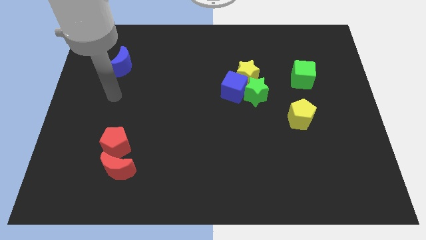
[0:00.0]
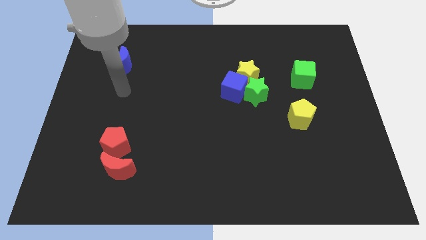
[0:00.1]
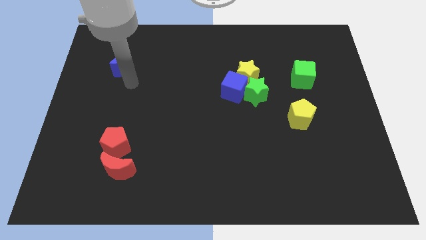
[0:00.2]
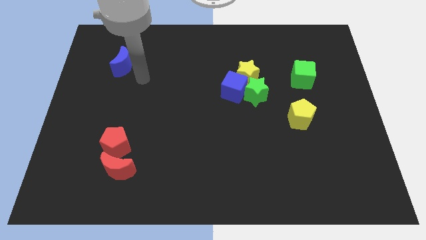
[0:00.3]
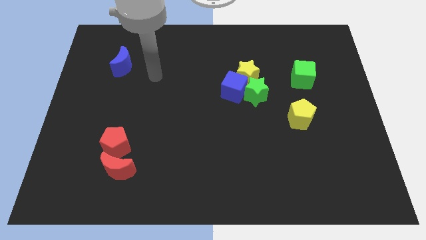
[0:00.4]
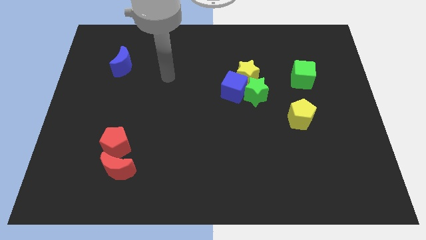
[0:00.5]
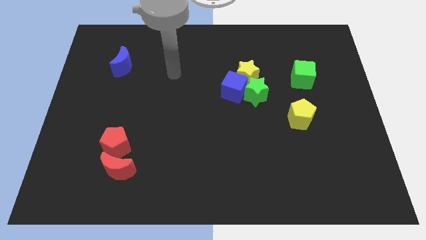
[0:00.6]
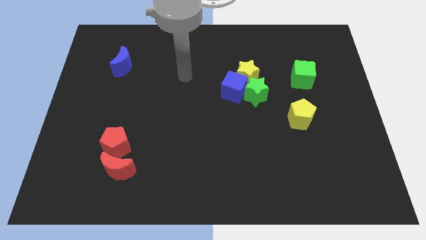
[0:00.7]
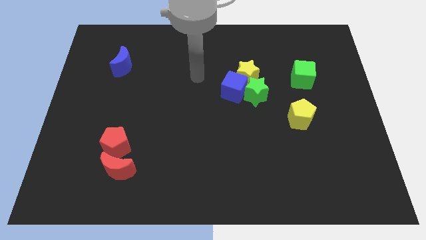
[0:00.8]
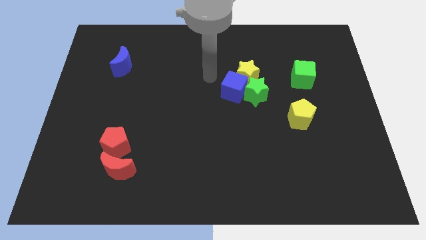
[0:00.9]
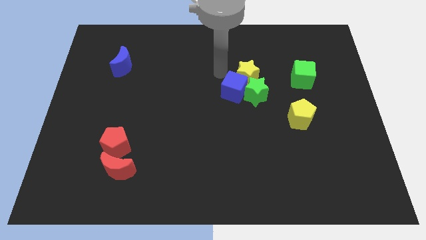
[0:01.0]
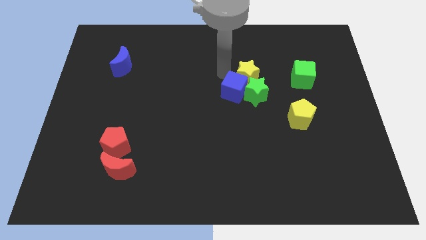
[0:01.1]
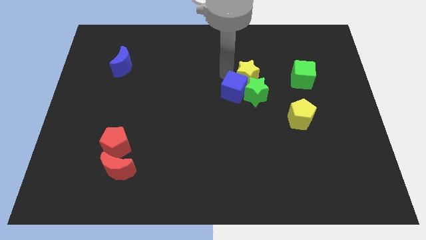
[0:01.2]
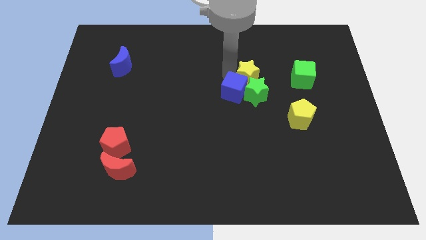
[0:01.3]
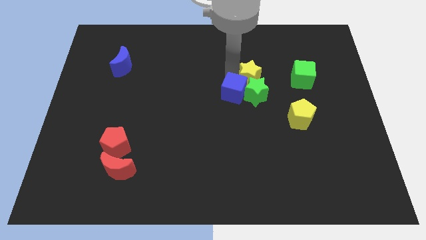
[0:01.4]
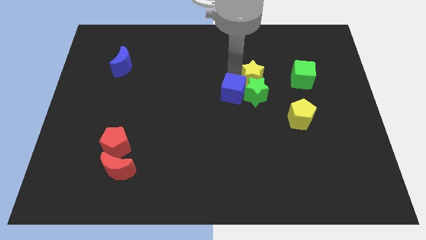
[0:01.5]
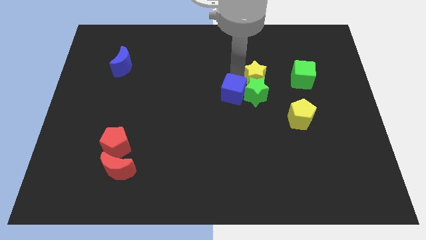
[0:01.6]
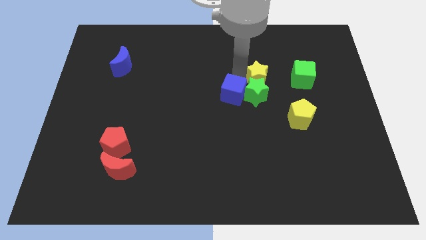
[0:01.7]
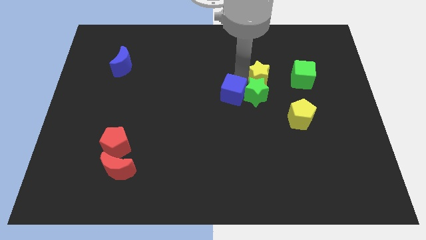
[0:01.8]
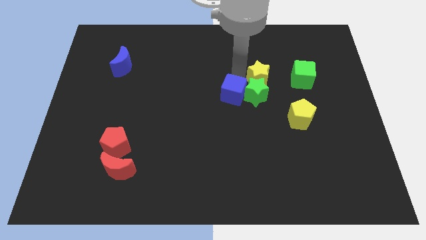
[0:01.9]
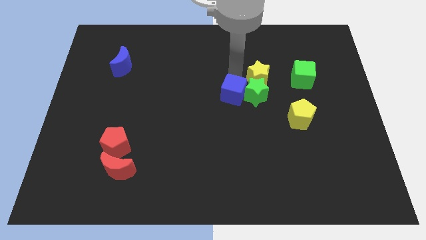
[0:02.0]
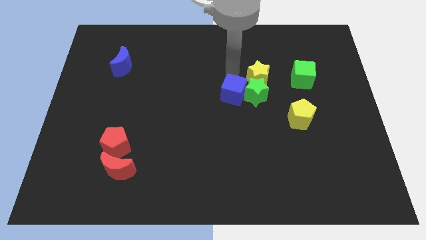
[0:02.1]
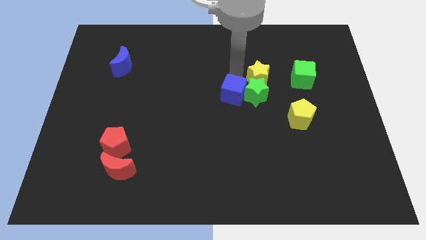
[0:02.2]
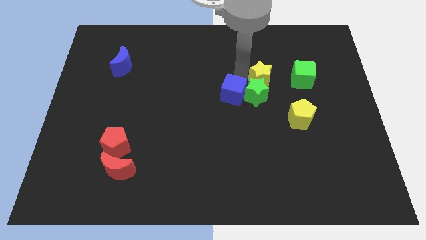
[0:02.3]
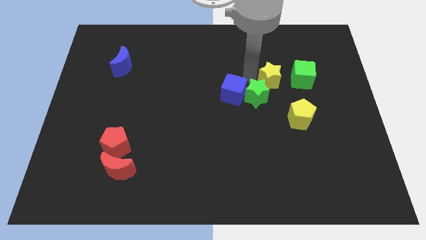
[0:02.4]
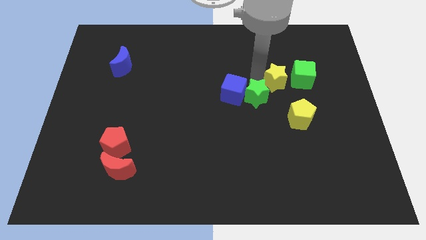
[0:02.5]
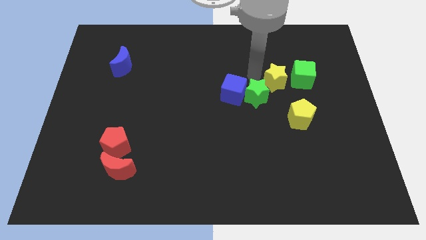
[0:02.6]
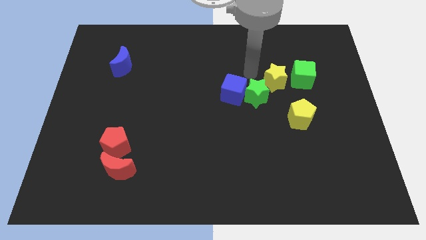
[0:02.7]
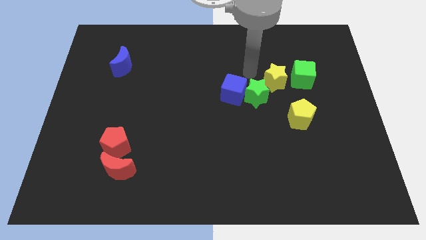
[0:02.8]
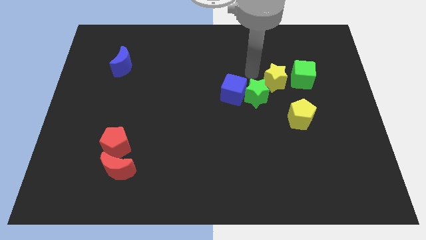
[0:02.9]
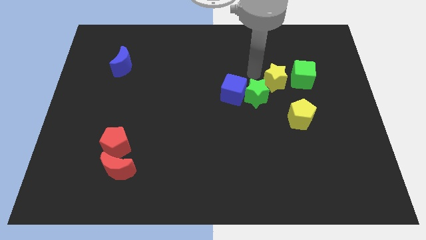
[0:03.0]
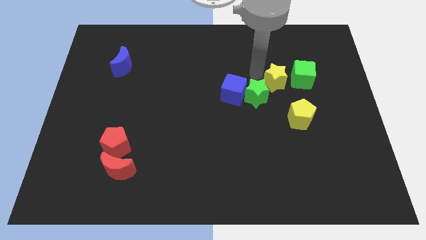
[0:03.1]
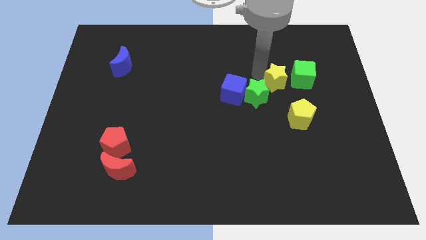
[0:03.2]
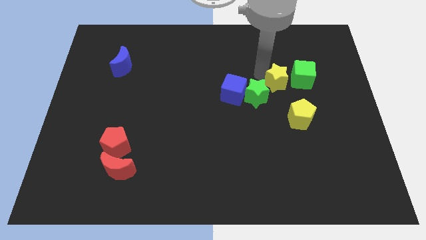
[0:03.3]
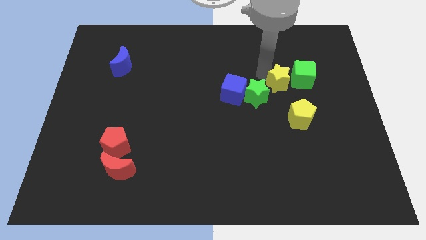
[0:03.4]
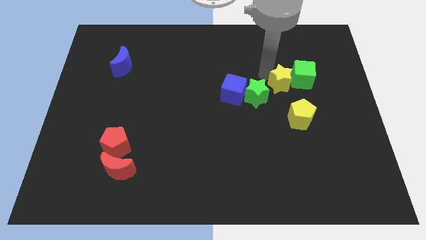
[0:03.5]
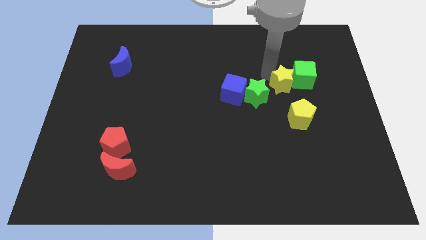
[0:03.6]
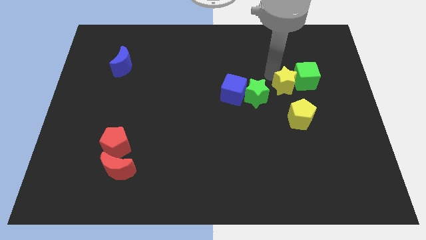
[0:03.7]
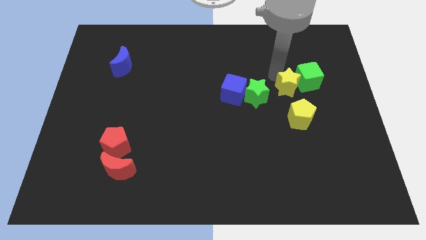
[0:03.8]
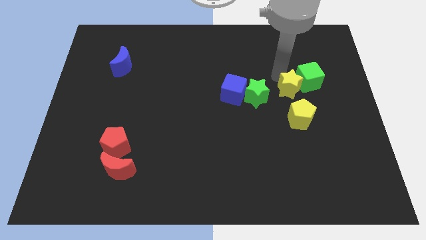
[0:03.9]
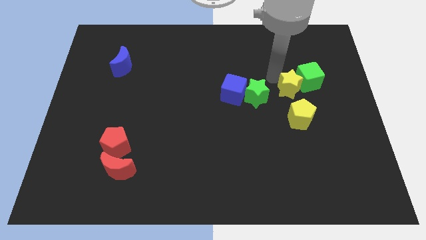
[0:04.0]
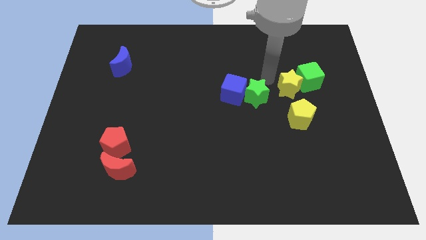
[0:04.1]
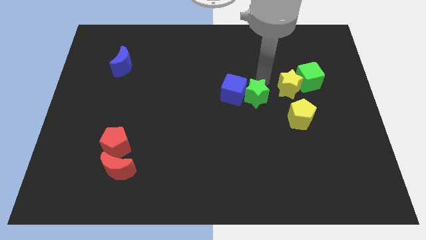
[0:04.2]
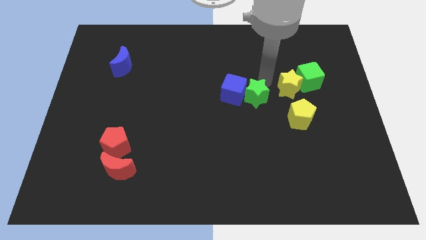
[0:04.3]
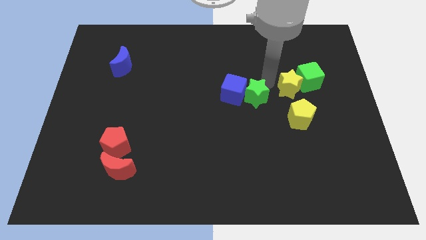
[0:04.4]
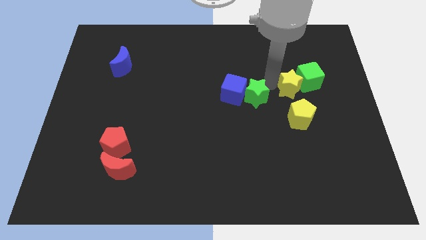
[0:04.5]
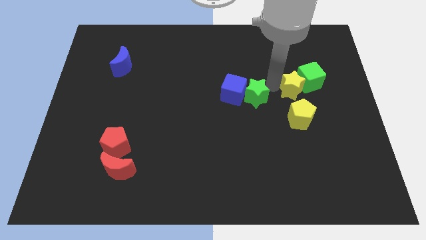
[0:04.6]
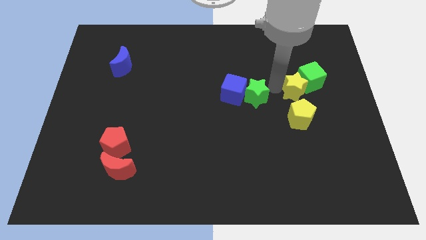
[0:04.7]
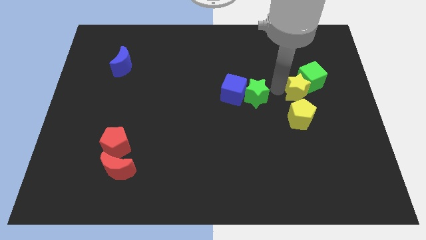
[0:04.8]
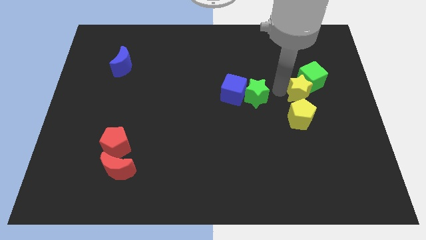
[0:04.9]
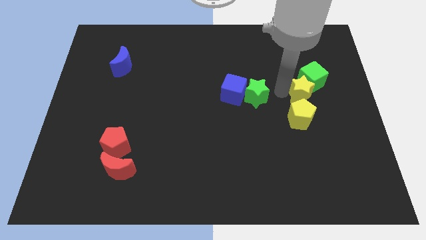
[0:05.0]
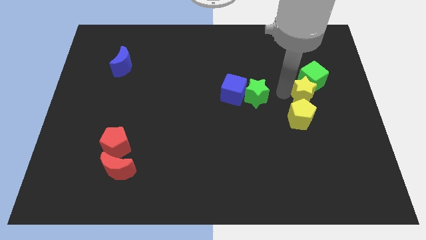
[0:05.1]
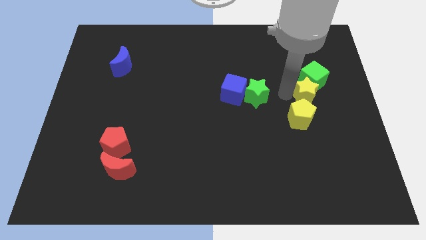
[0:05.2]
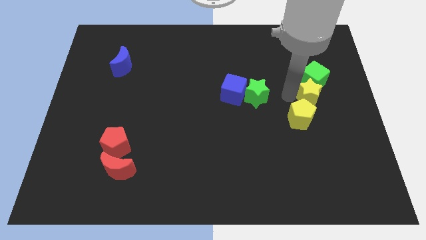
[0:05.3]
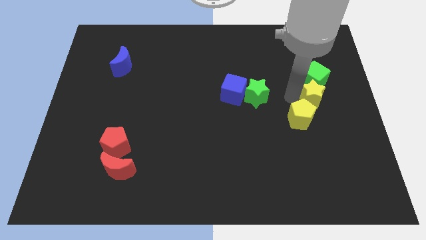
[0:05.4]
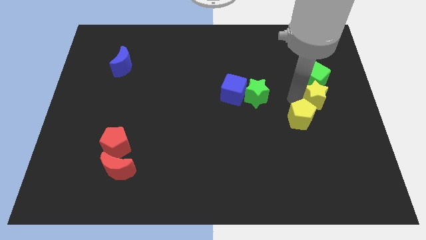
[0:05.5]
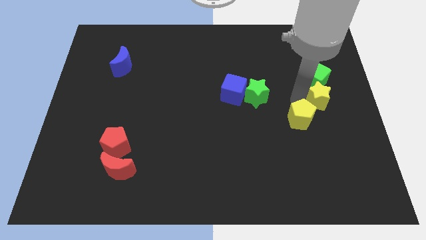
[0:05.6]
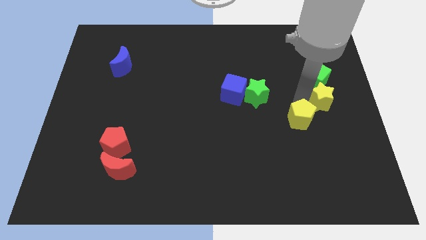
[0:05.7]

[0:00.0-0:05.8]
slide the yellow star to the center right
